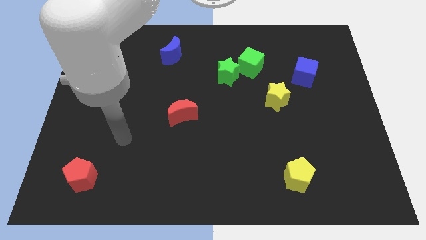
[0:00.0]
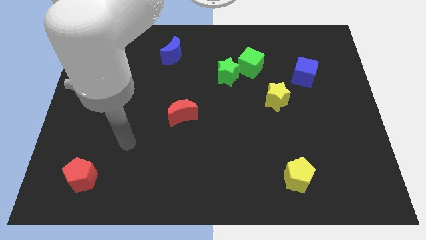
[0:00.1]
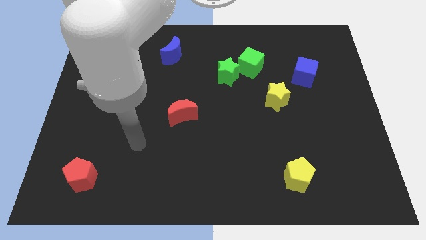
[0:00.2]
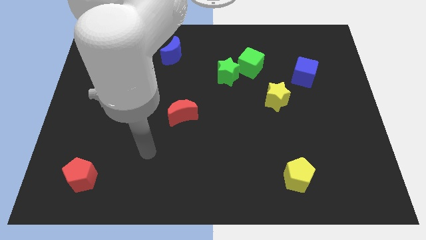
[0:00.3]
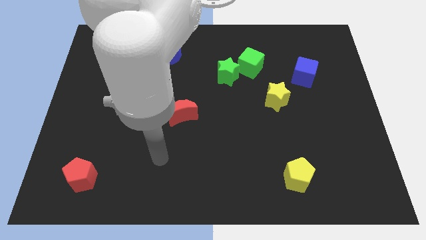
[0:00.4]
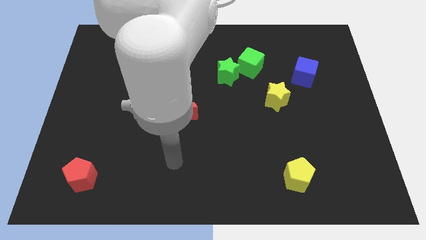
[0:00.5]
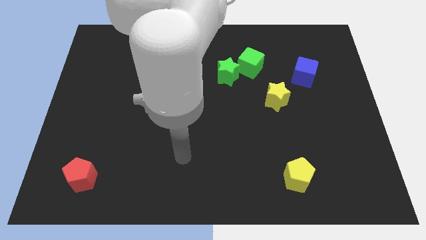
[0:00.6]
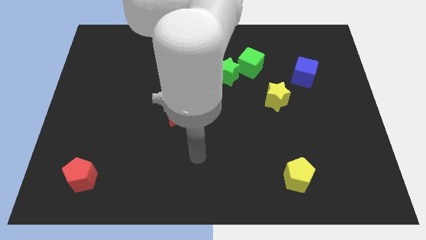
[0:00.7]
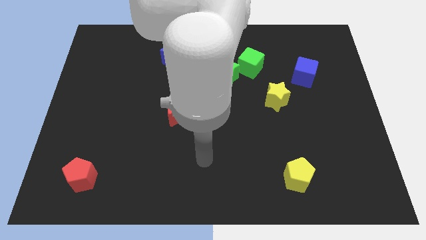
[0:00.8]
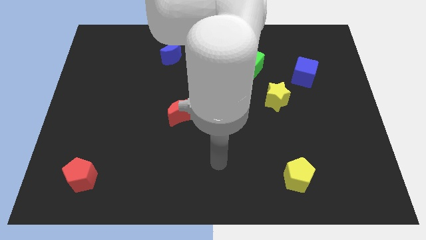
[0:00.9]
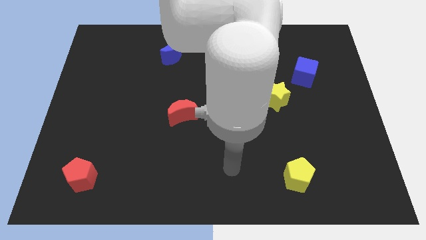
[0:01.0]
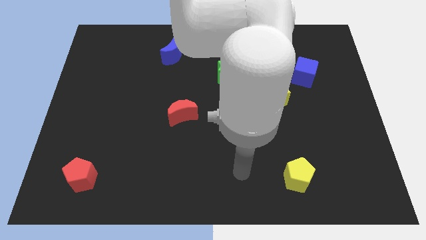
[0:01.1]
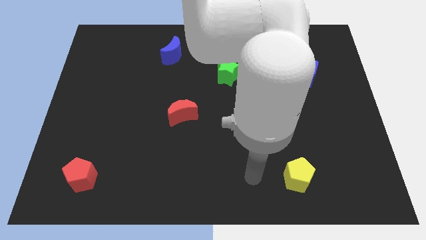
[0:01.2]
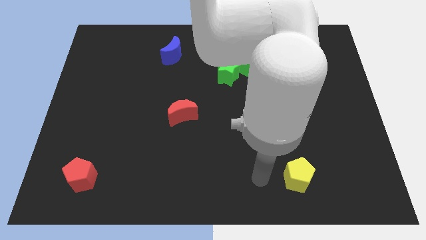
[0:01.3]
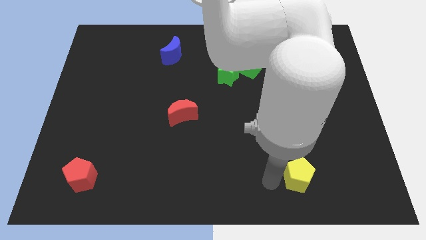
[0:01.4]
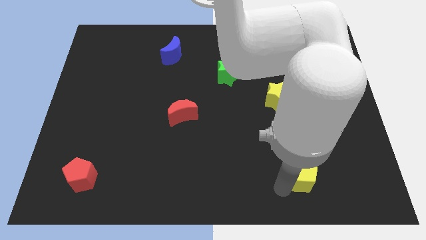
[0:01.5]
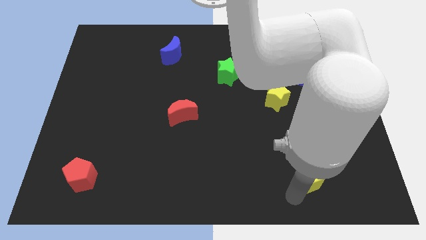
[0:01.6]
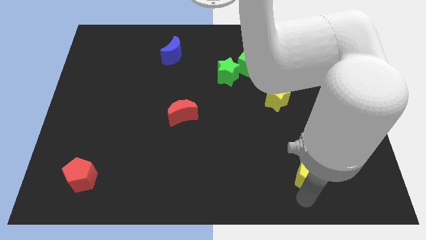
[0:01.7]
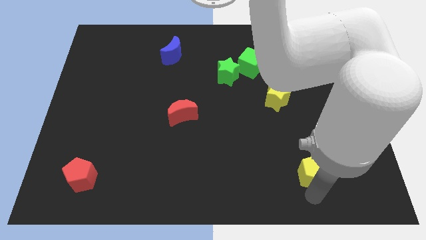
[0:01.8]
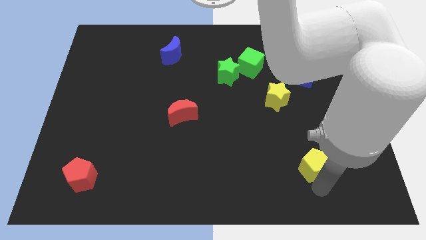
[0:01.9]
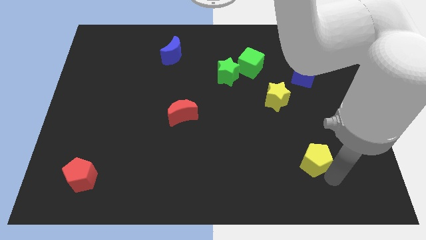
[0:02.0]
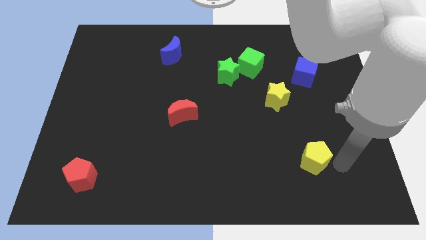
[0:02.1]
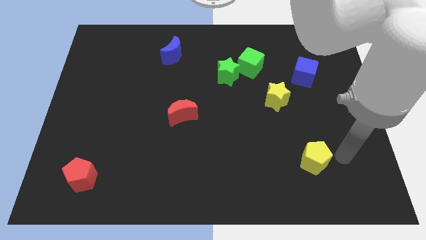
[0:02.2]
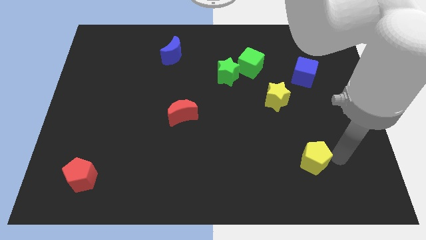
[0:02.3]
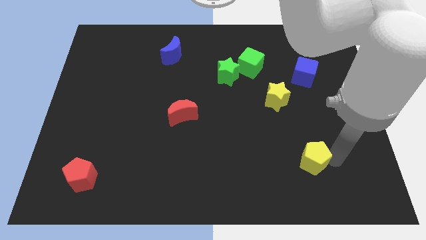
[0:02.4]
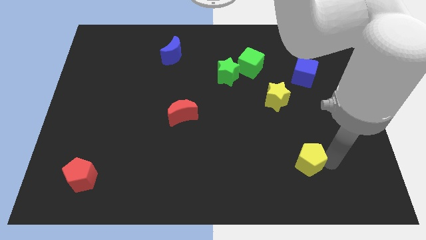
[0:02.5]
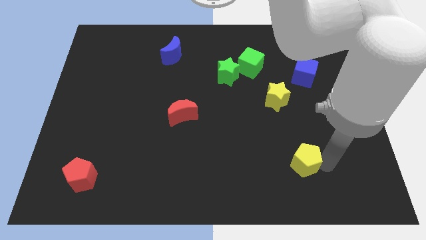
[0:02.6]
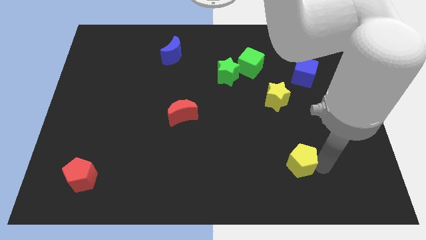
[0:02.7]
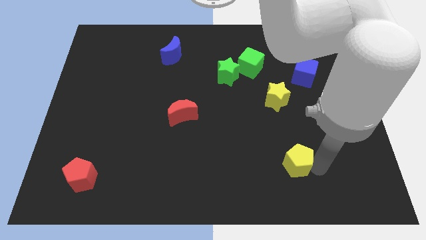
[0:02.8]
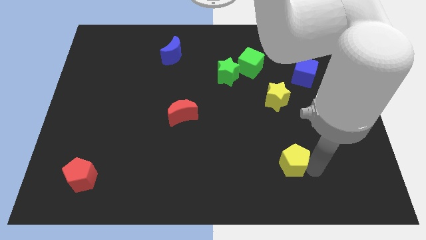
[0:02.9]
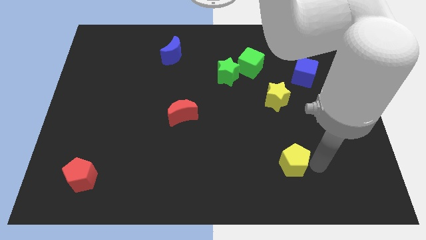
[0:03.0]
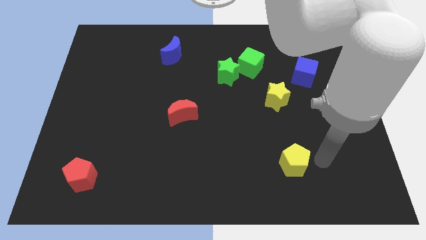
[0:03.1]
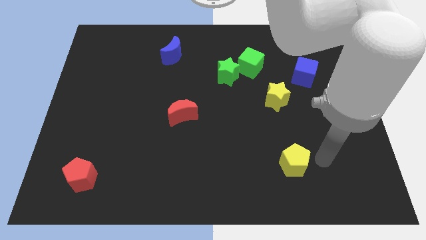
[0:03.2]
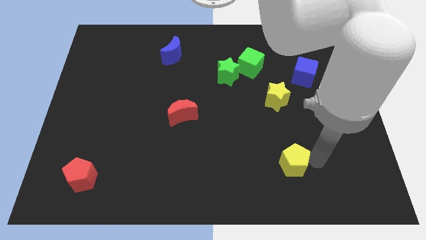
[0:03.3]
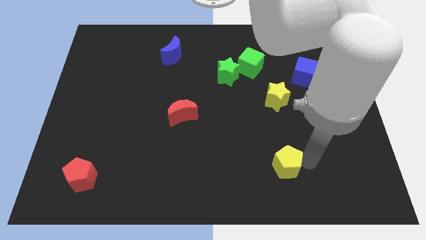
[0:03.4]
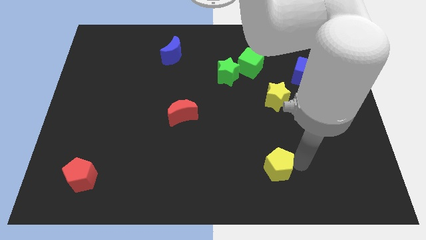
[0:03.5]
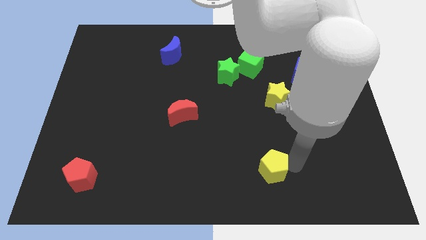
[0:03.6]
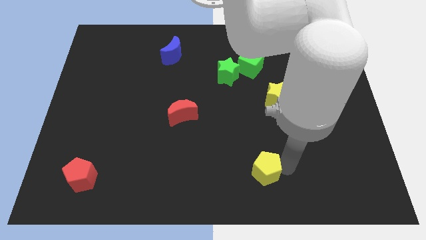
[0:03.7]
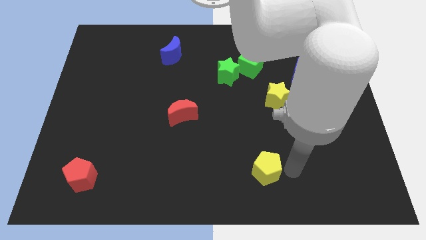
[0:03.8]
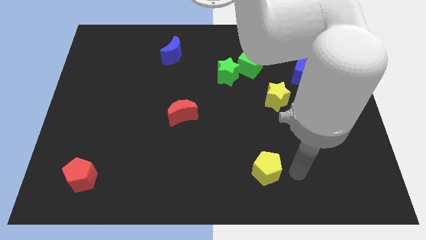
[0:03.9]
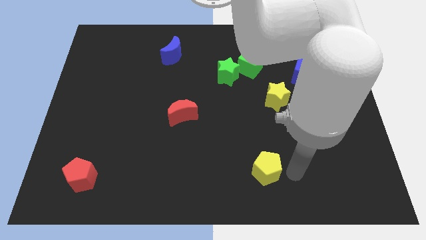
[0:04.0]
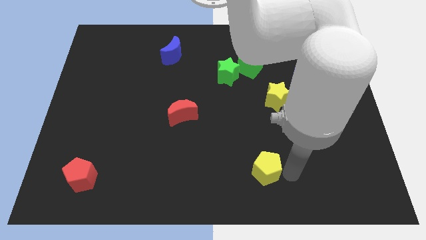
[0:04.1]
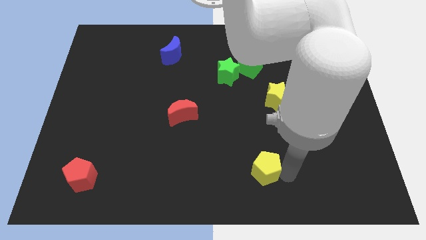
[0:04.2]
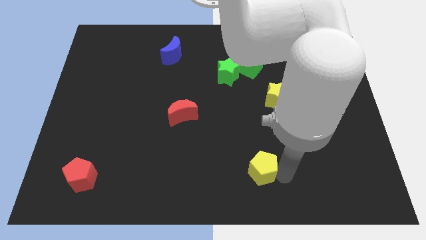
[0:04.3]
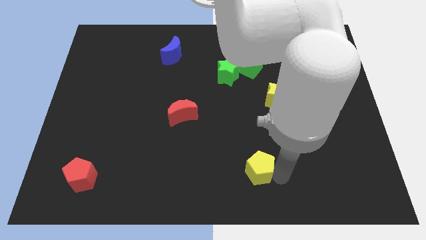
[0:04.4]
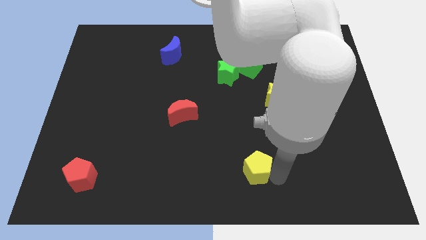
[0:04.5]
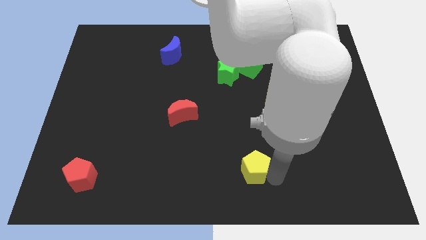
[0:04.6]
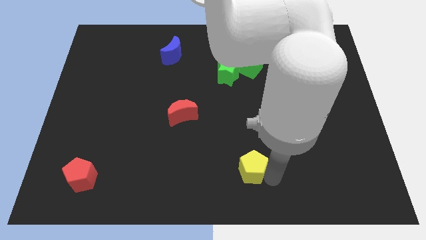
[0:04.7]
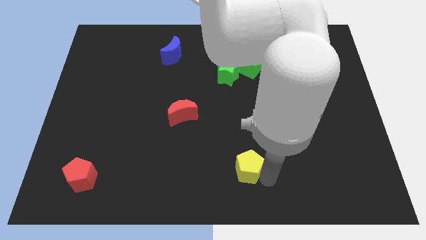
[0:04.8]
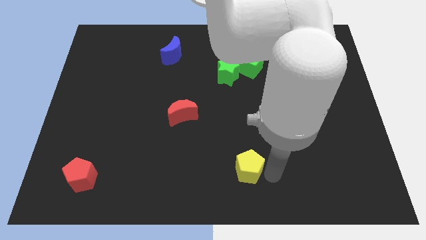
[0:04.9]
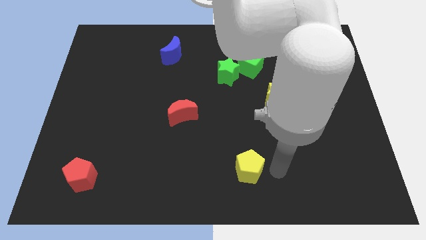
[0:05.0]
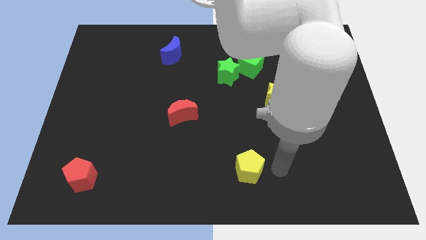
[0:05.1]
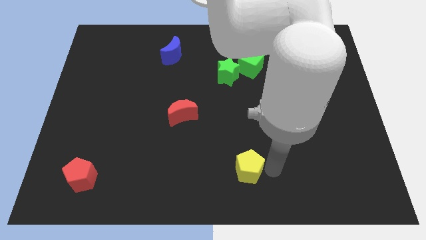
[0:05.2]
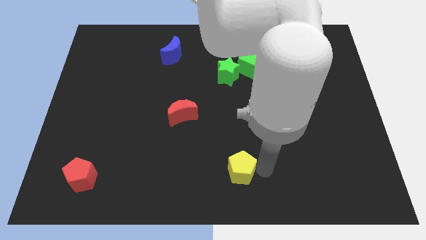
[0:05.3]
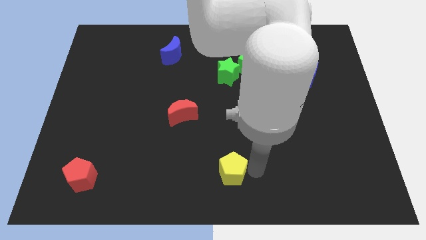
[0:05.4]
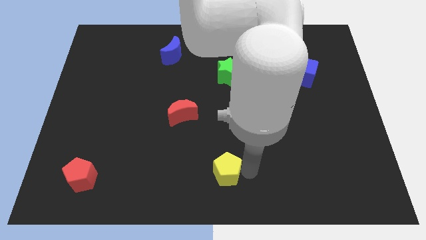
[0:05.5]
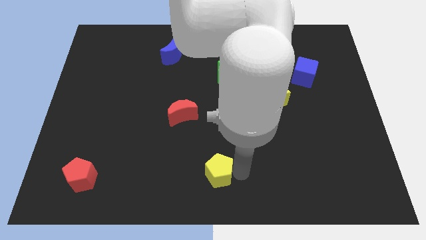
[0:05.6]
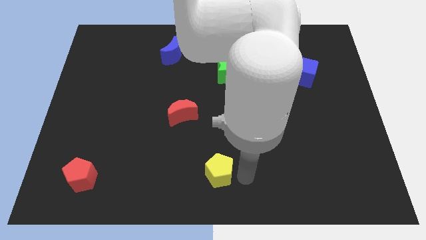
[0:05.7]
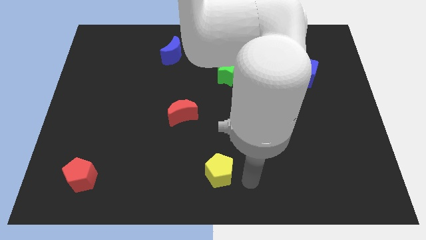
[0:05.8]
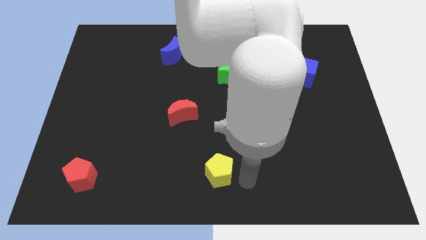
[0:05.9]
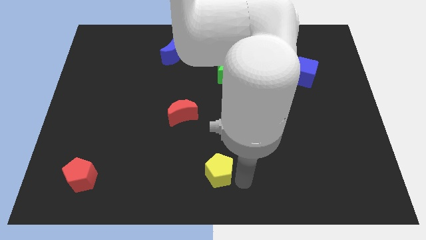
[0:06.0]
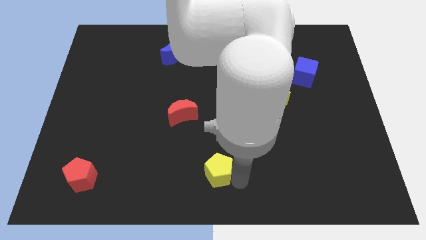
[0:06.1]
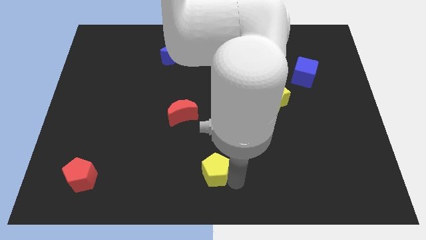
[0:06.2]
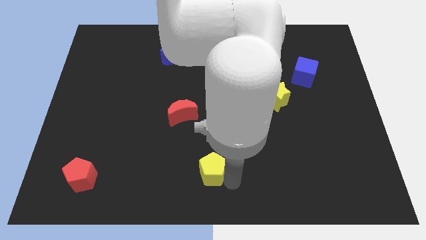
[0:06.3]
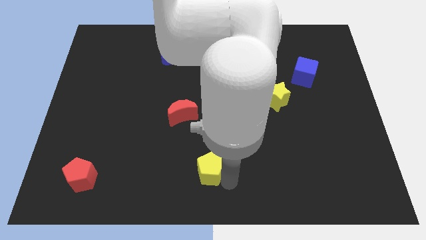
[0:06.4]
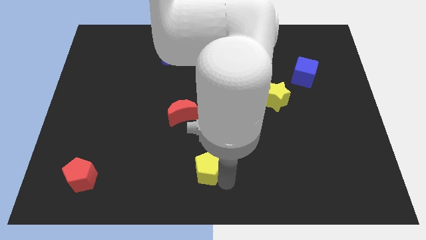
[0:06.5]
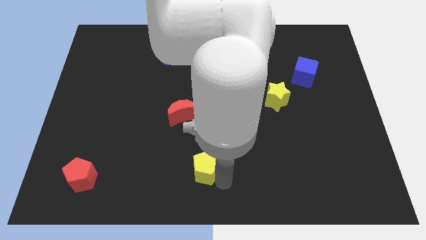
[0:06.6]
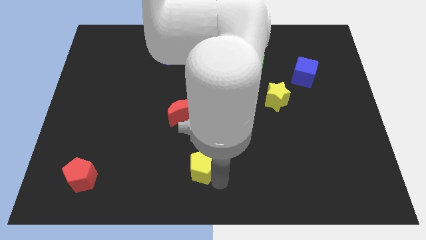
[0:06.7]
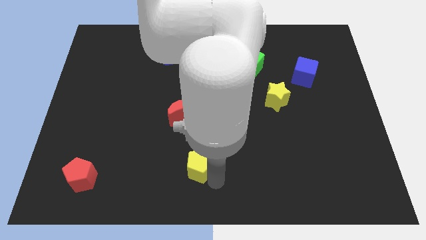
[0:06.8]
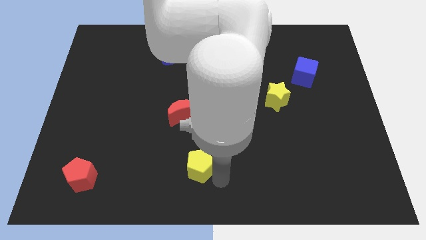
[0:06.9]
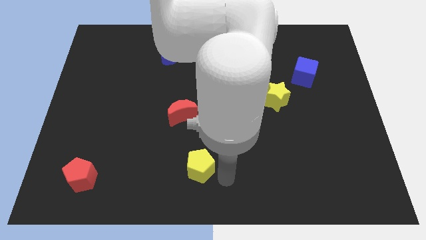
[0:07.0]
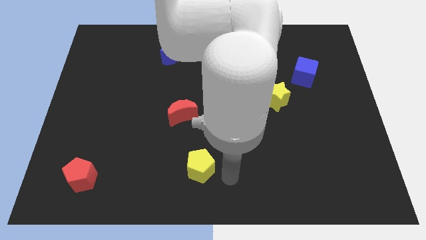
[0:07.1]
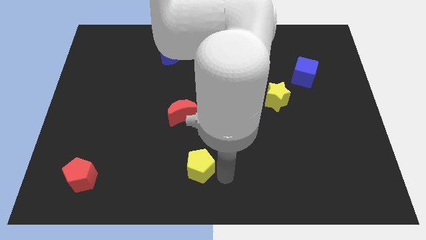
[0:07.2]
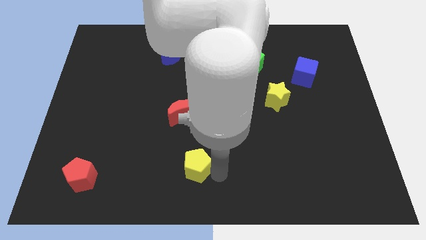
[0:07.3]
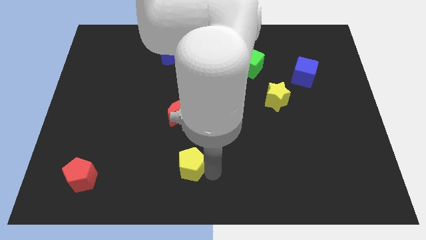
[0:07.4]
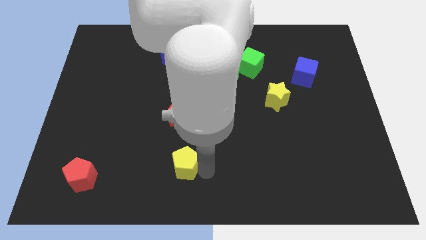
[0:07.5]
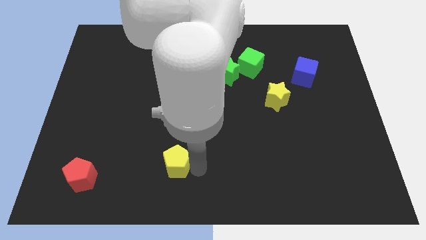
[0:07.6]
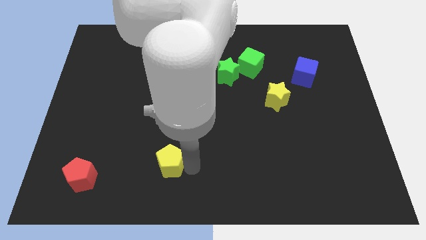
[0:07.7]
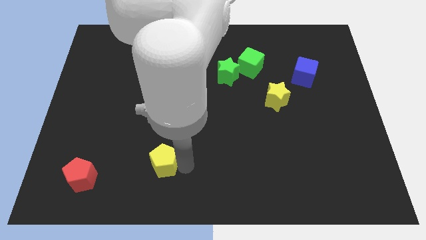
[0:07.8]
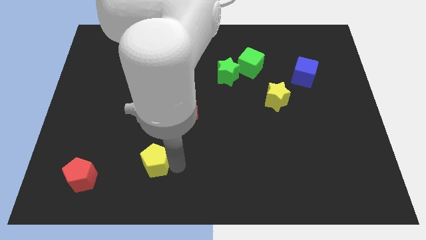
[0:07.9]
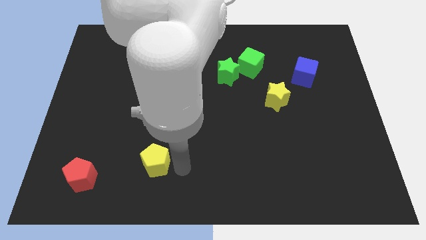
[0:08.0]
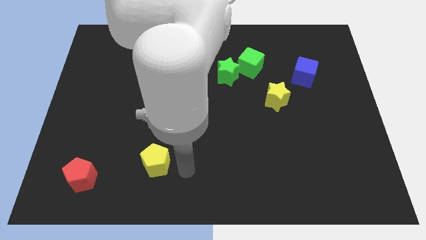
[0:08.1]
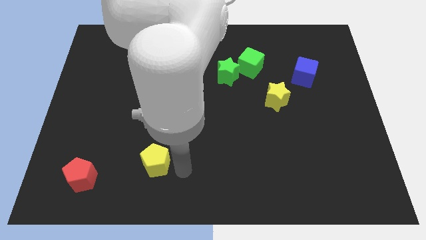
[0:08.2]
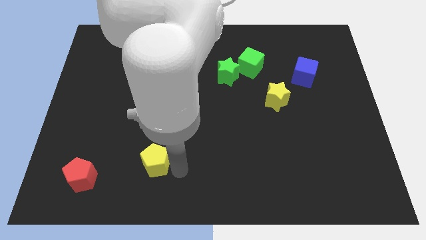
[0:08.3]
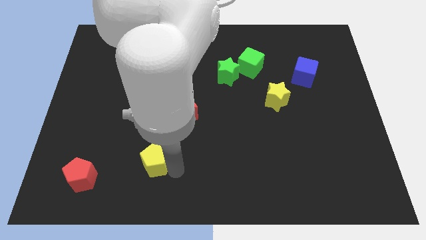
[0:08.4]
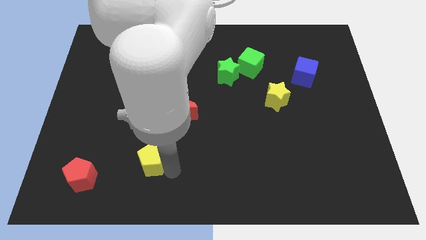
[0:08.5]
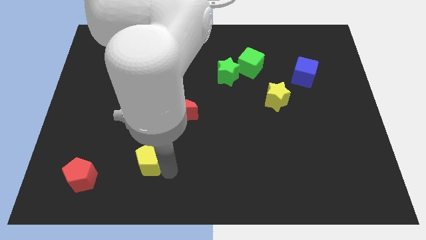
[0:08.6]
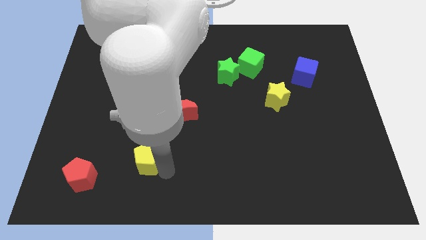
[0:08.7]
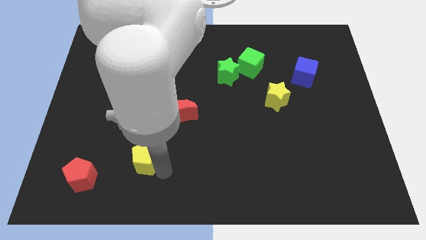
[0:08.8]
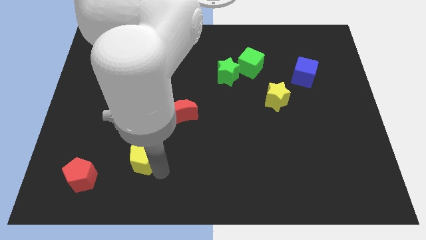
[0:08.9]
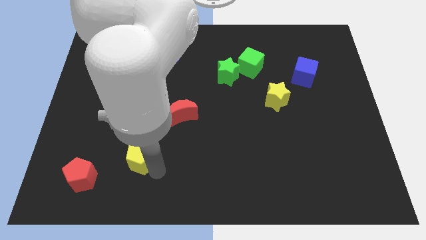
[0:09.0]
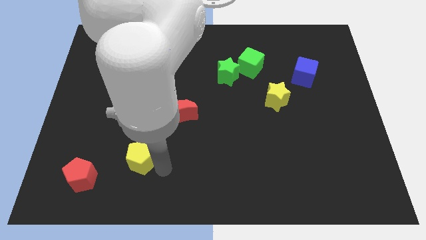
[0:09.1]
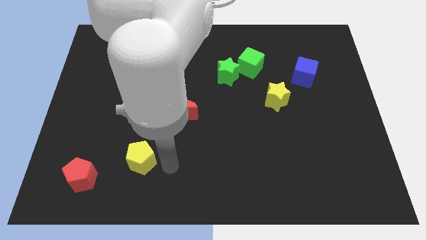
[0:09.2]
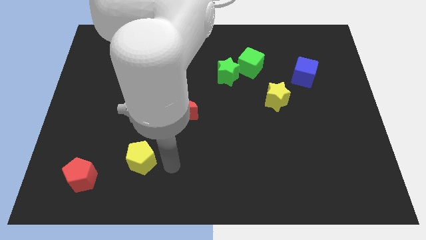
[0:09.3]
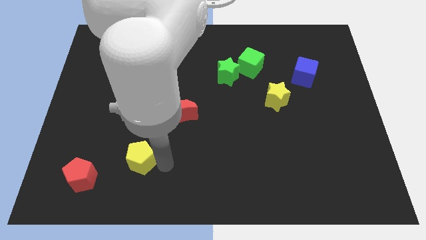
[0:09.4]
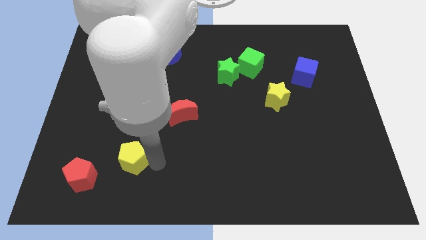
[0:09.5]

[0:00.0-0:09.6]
put the yellow pentagon to the top right of the red pentagon
